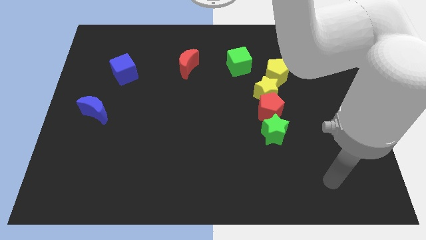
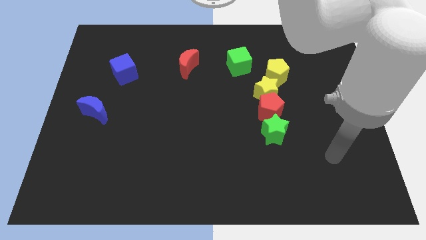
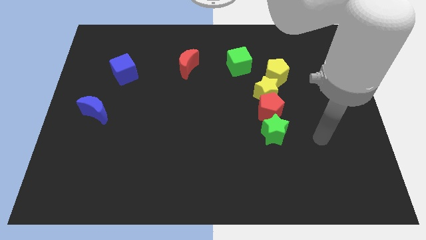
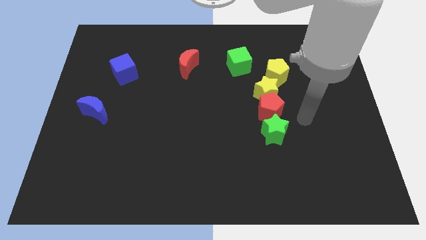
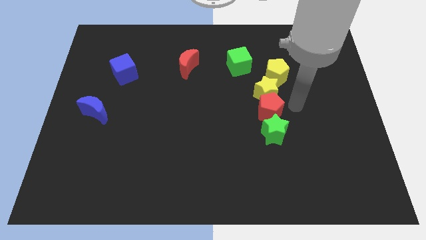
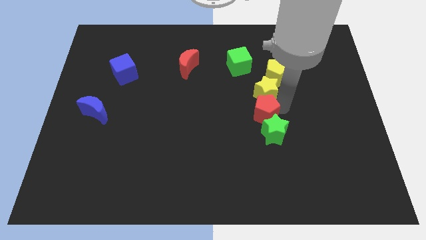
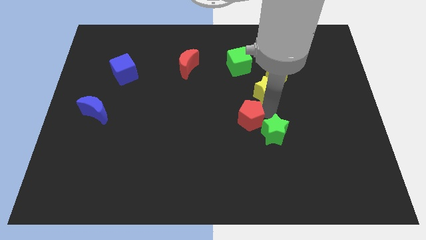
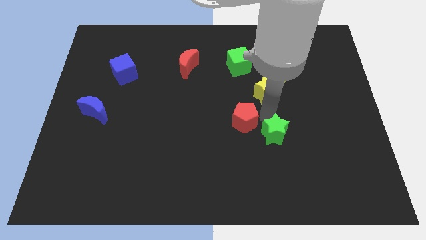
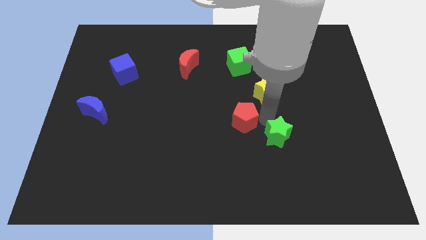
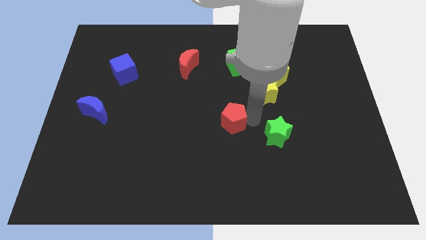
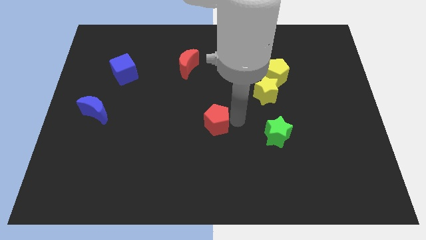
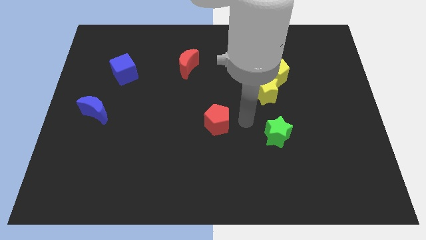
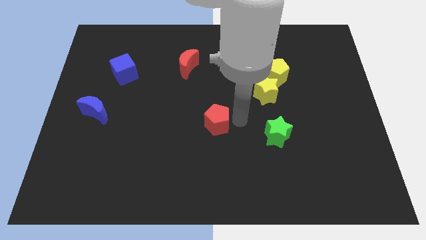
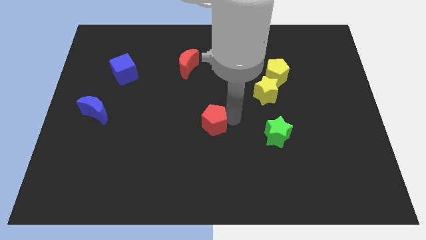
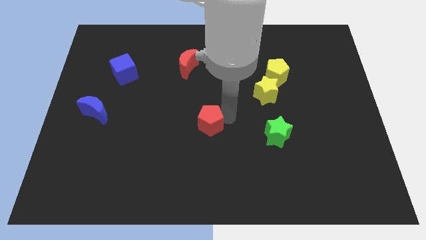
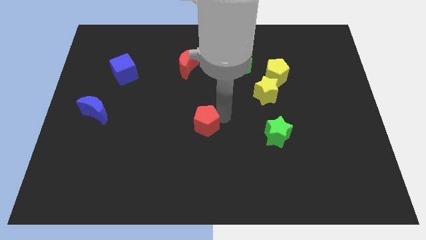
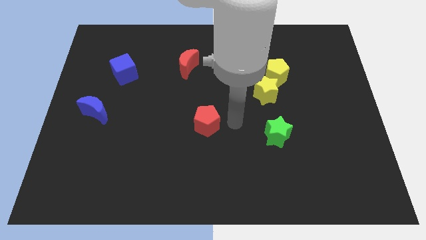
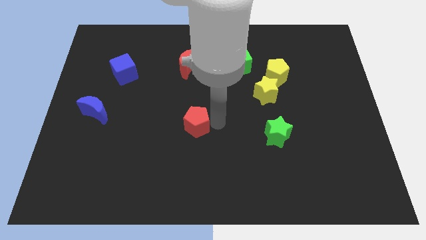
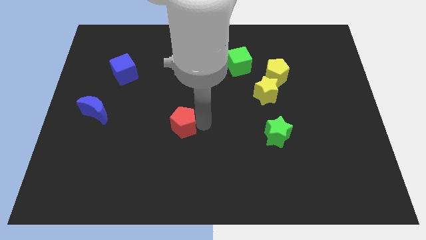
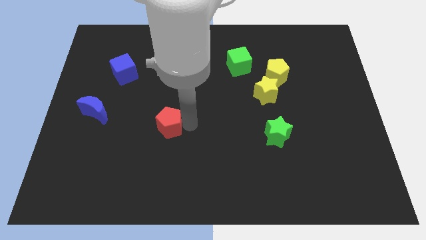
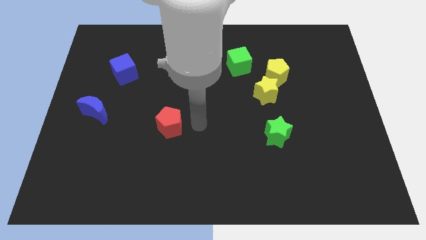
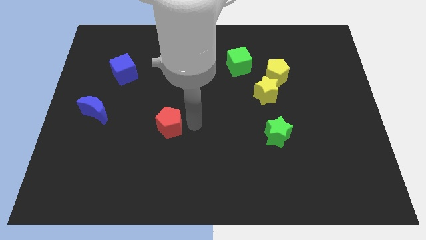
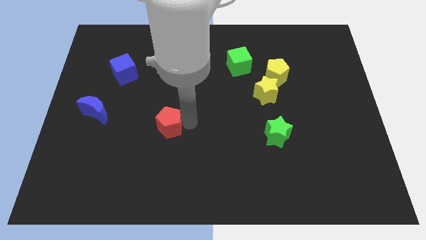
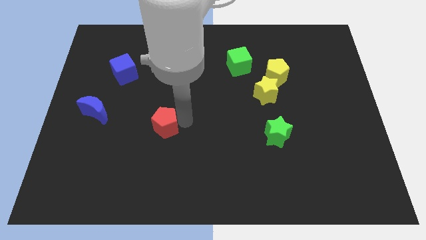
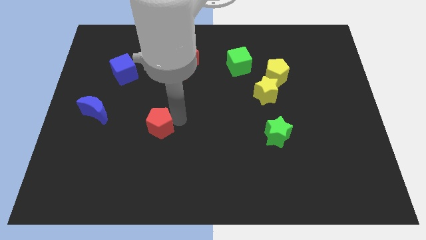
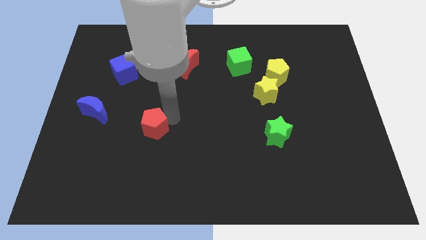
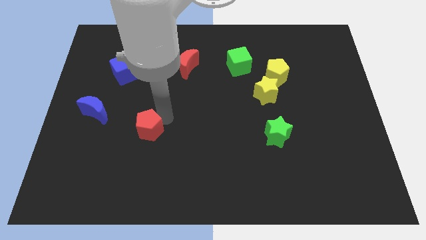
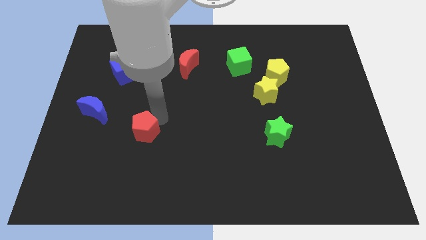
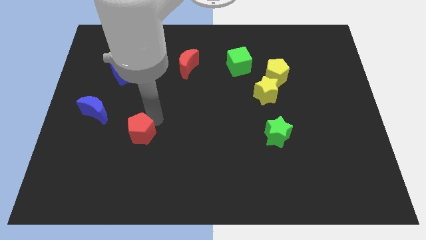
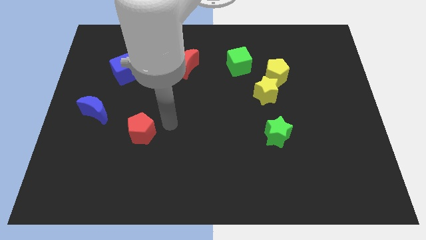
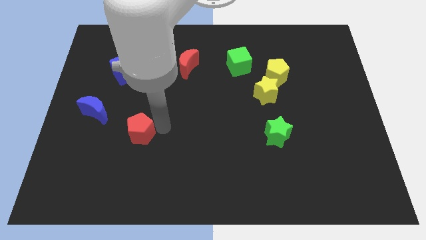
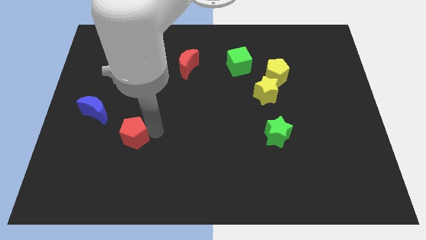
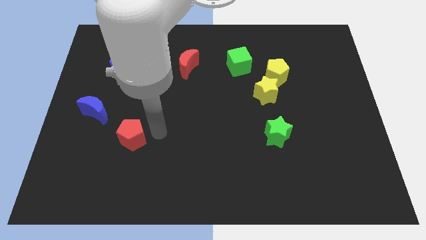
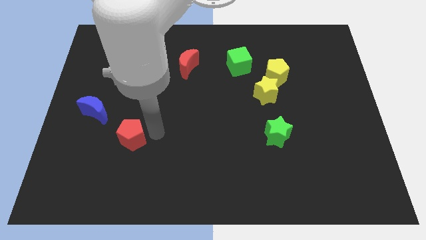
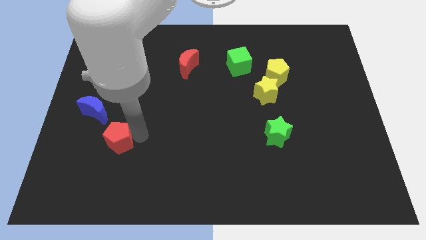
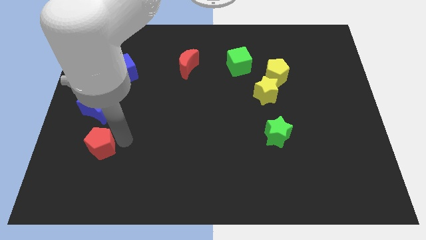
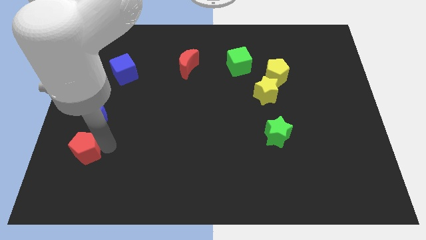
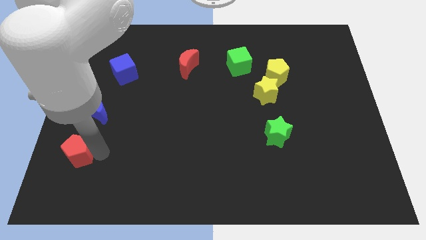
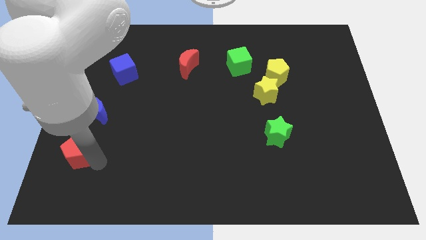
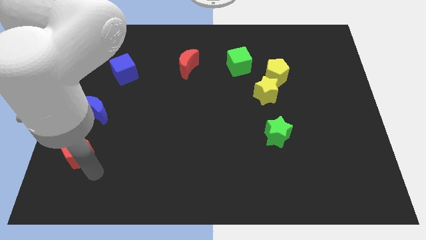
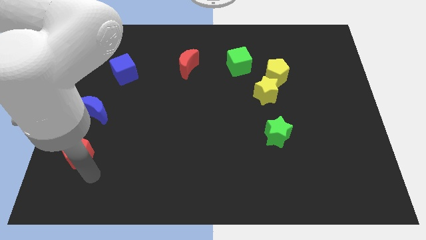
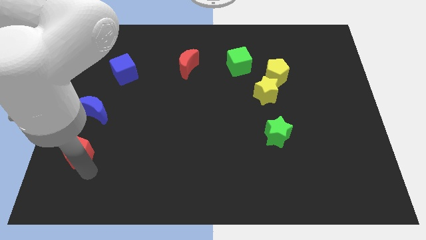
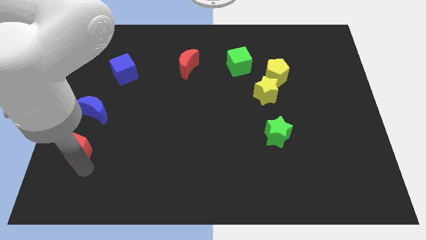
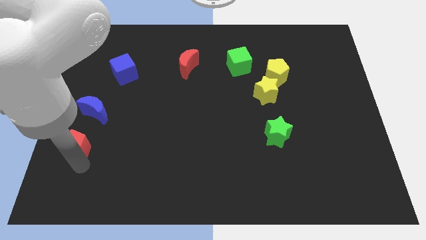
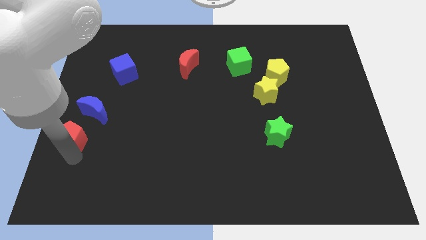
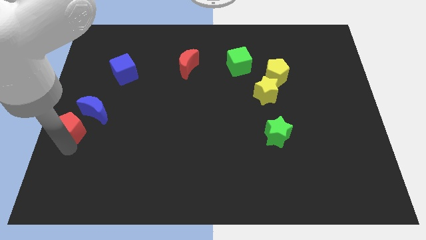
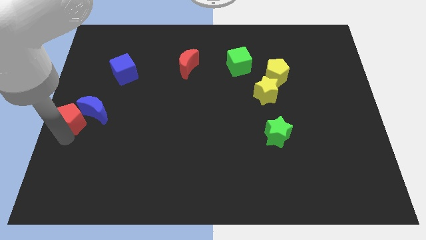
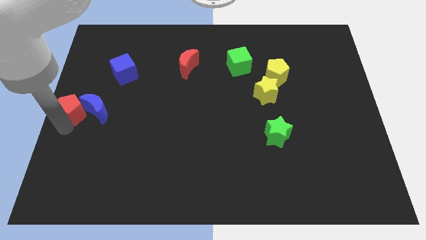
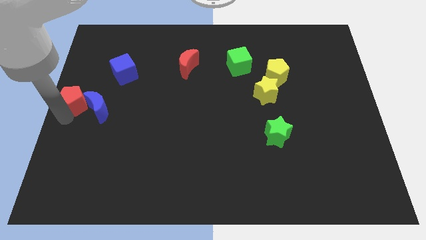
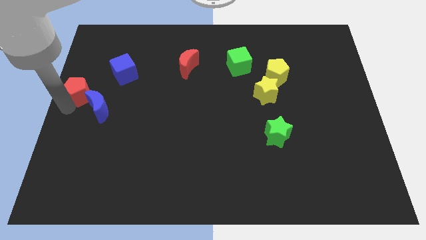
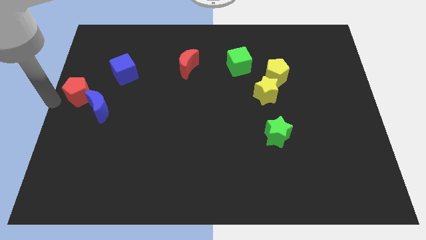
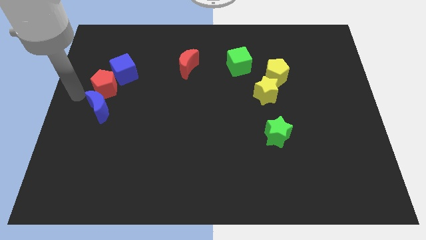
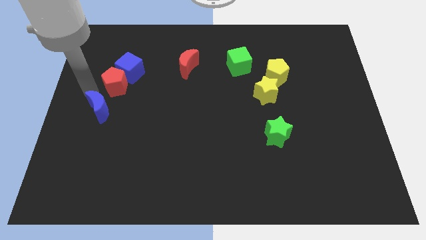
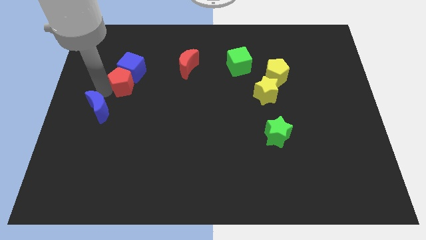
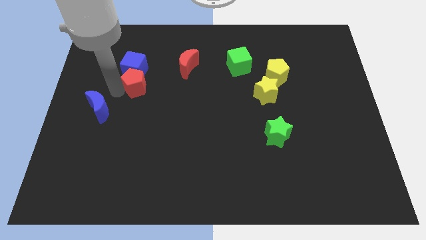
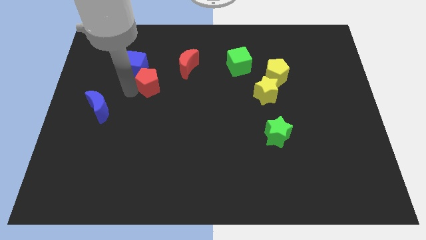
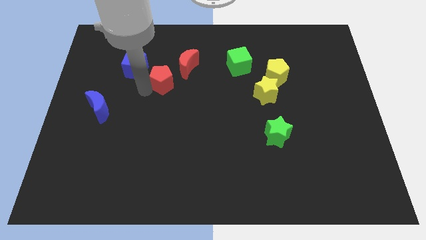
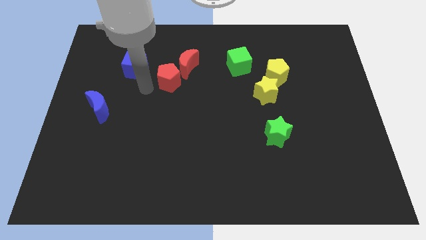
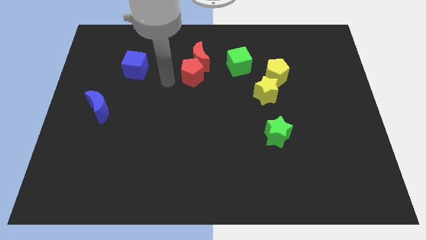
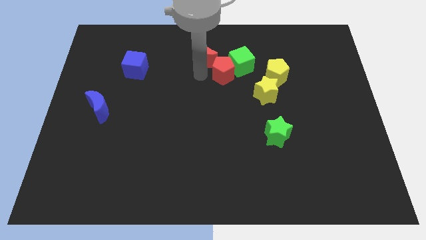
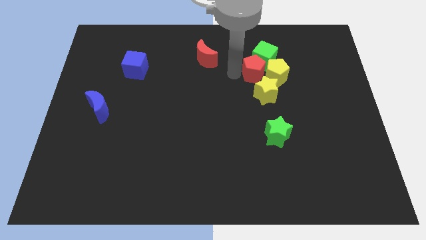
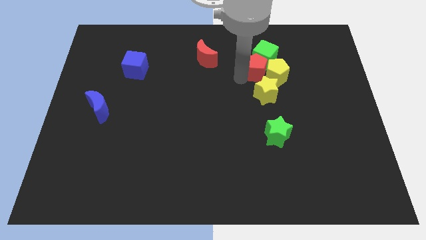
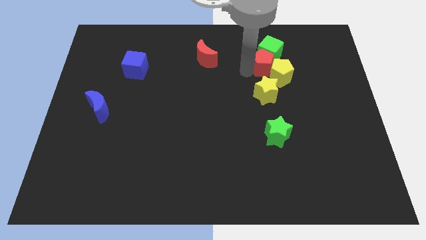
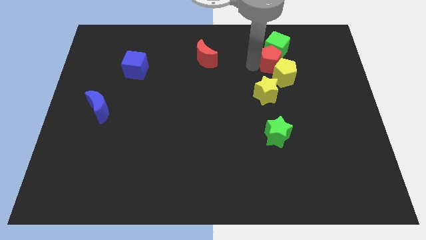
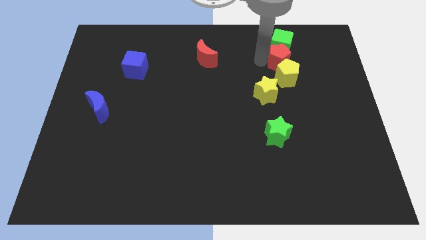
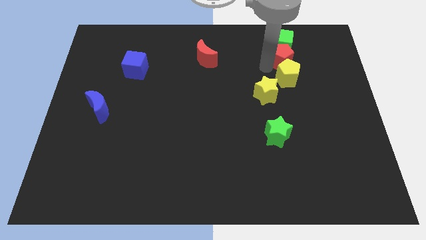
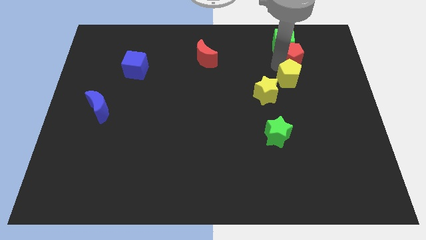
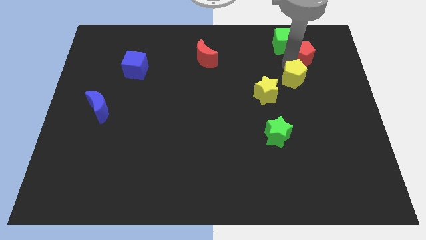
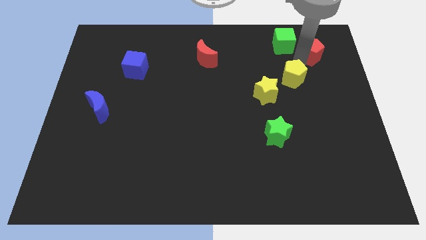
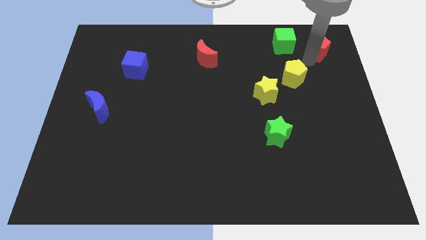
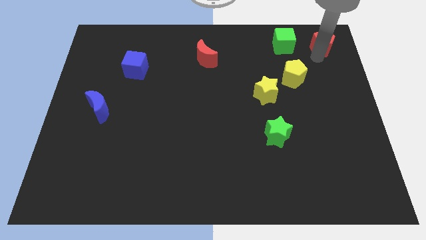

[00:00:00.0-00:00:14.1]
move the red pentagon to the top right corner
